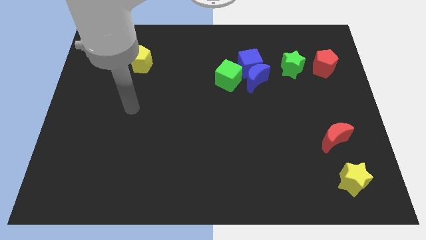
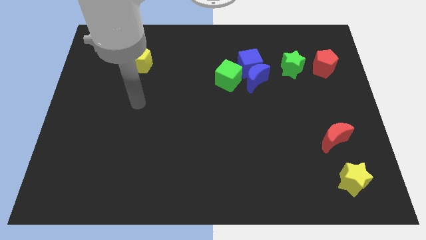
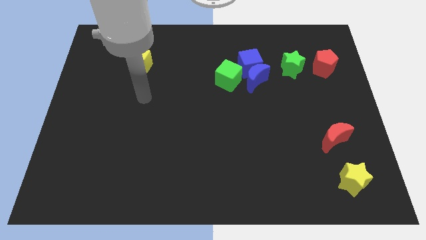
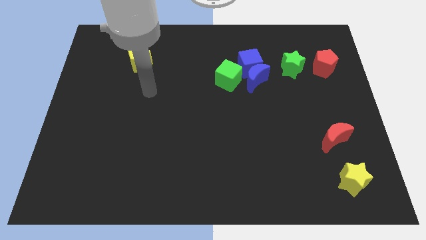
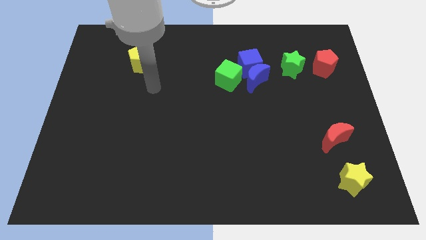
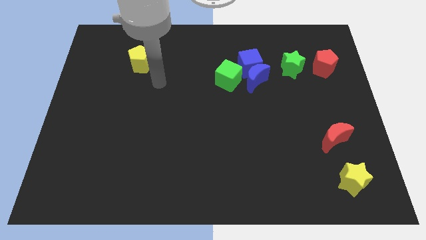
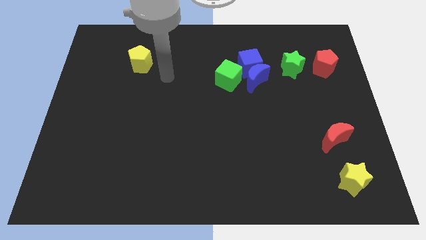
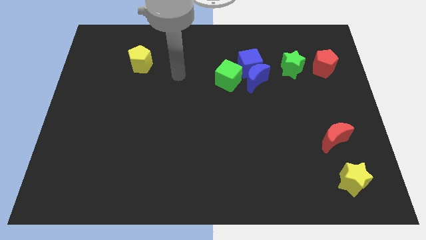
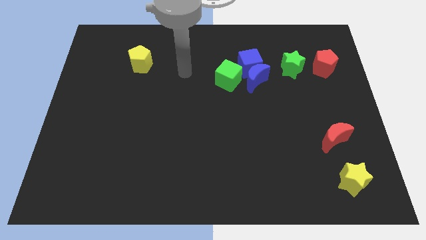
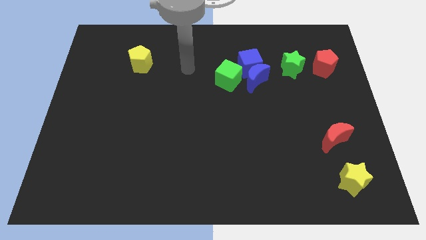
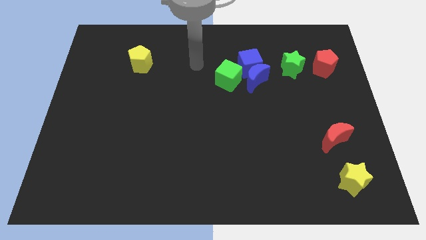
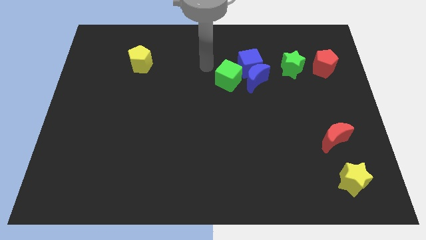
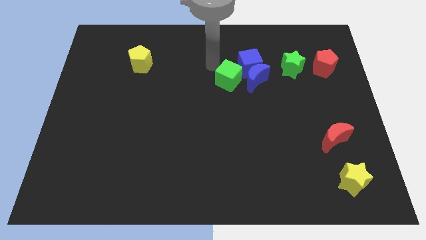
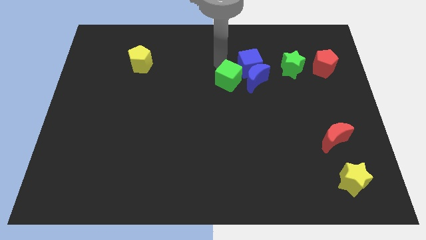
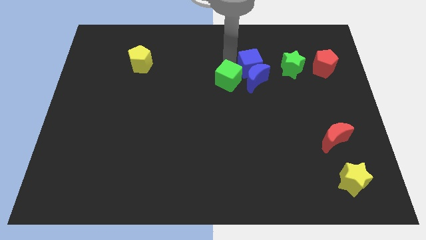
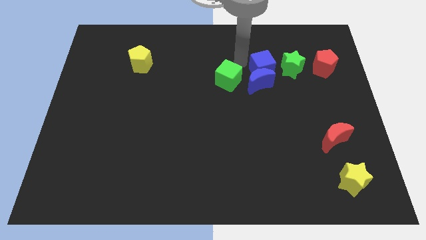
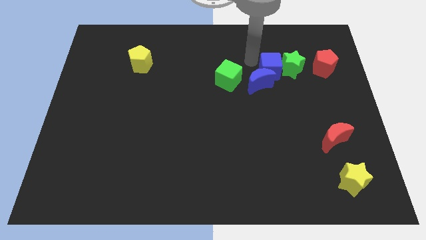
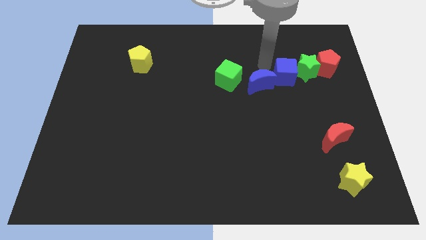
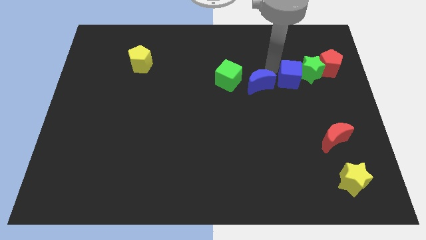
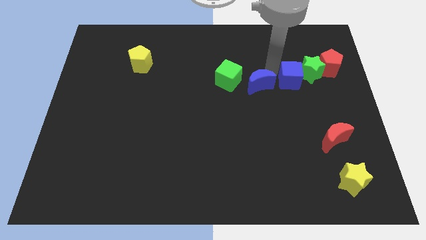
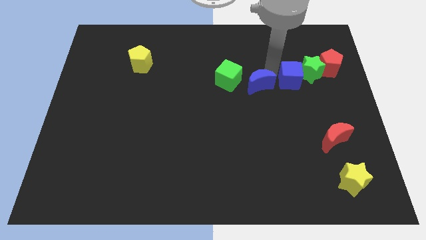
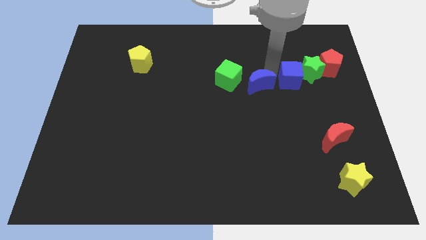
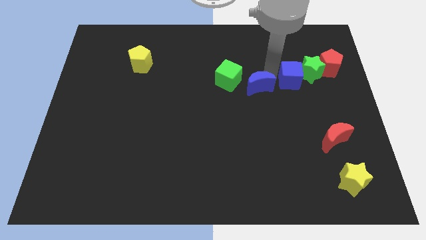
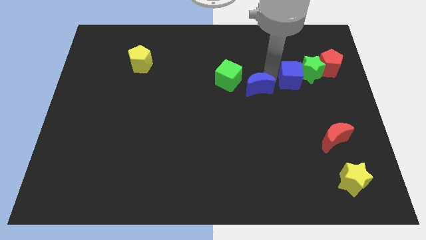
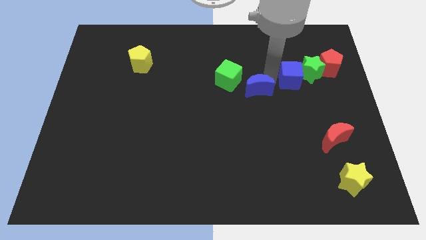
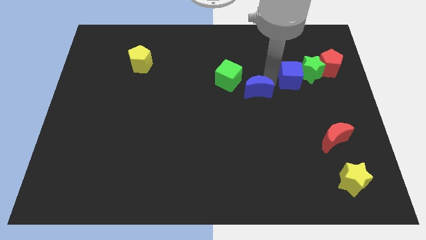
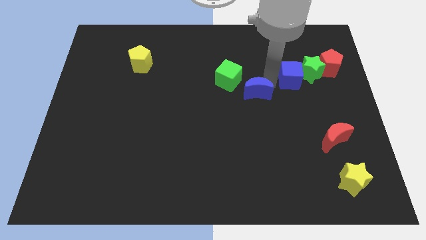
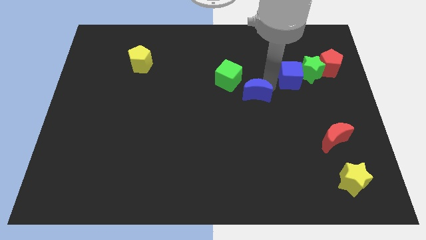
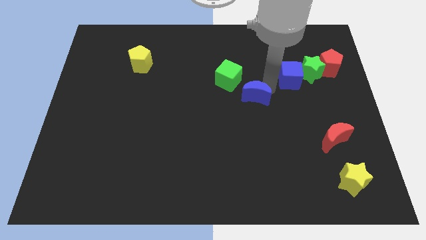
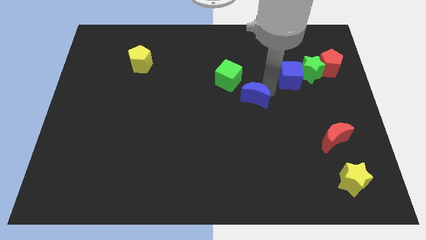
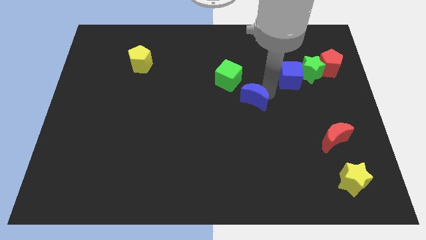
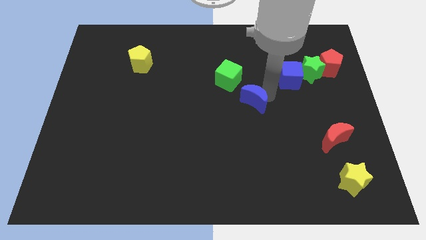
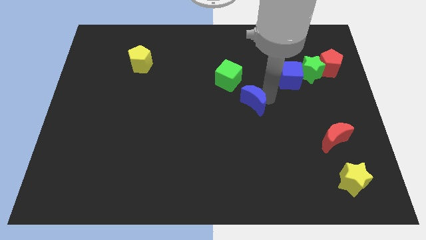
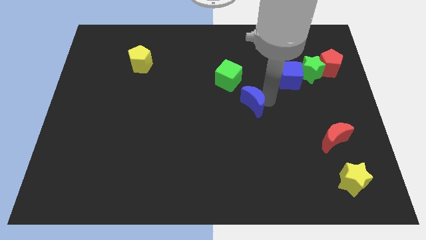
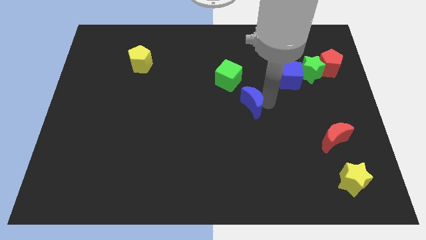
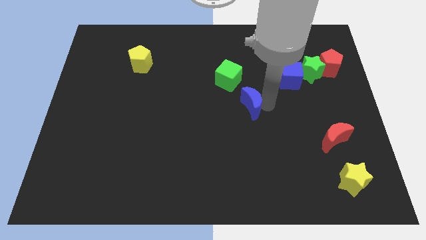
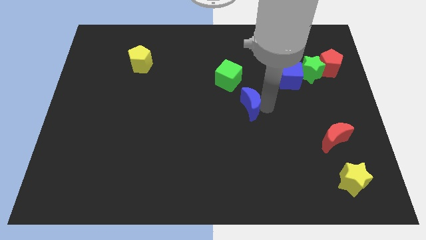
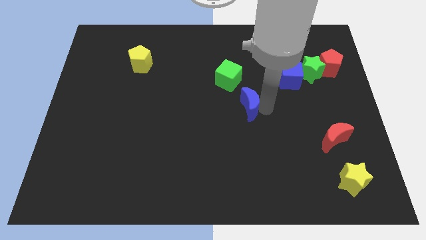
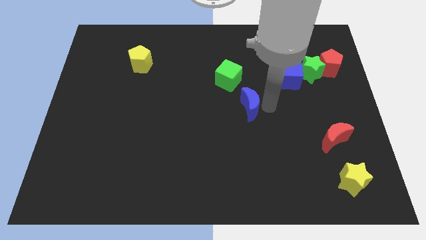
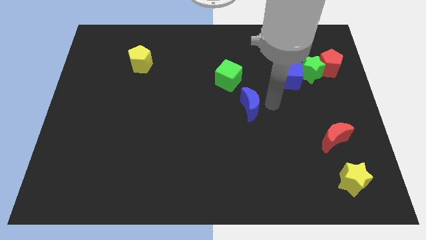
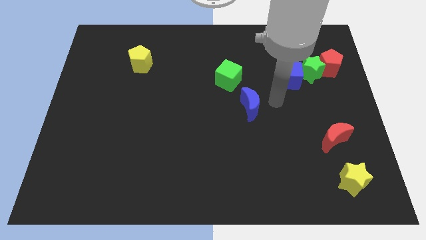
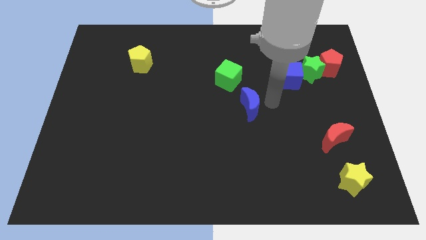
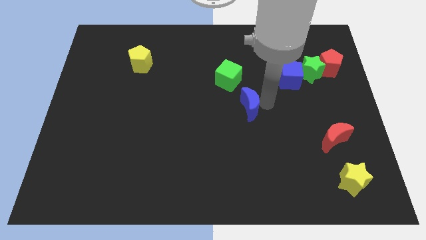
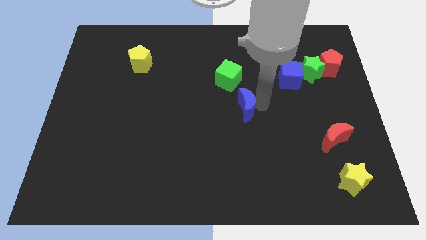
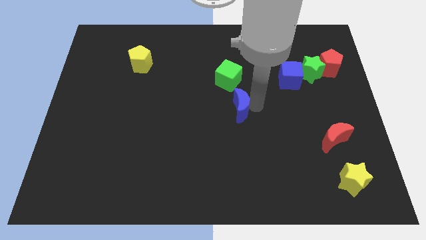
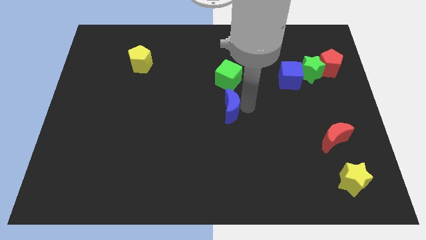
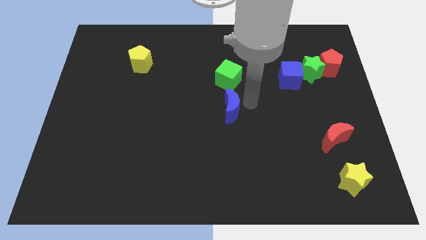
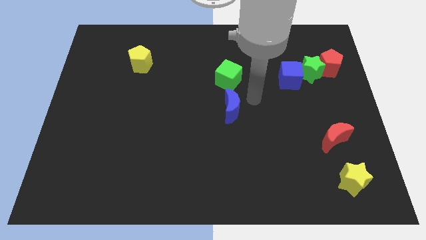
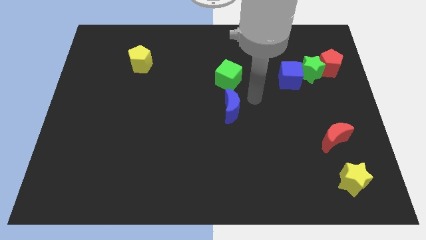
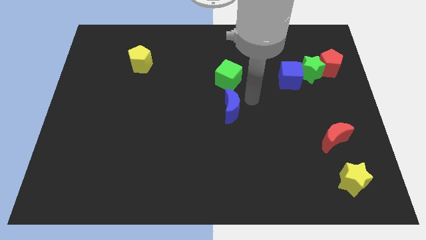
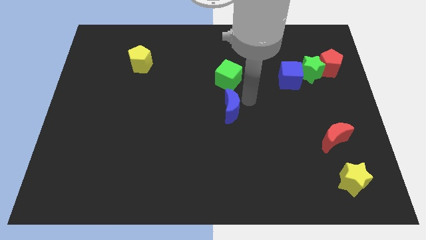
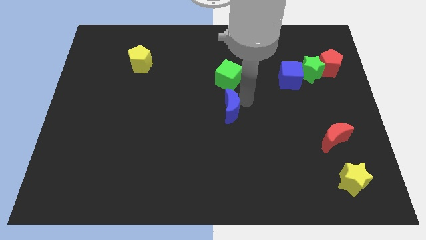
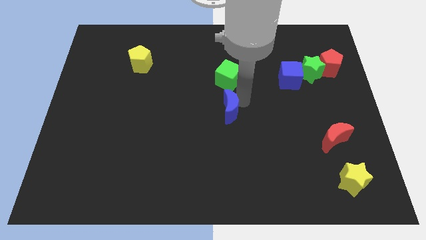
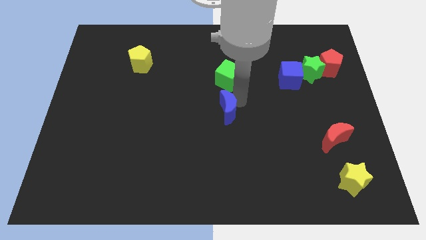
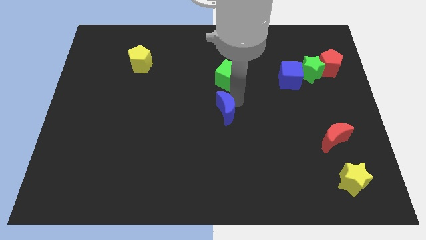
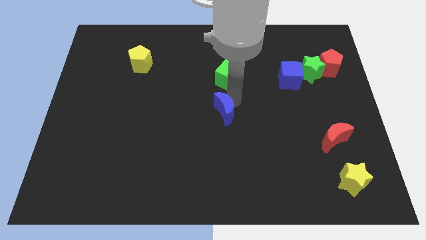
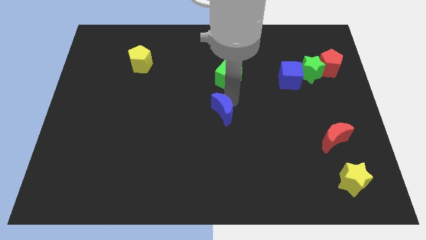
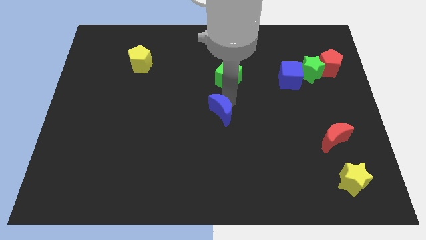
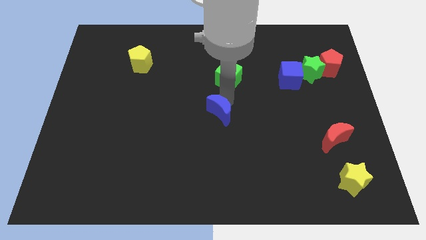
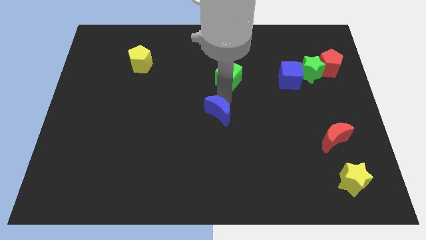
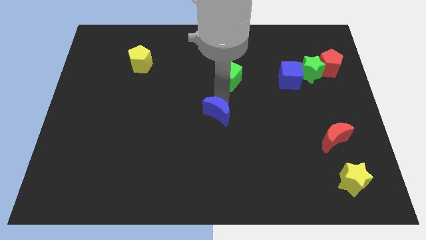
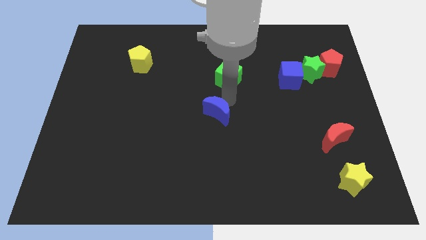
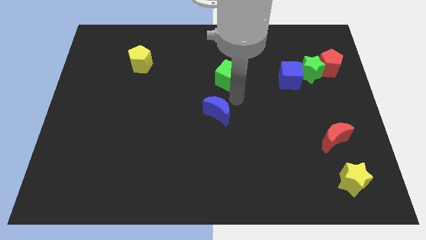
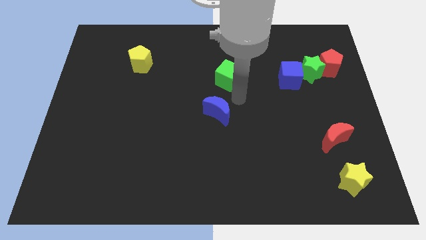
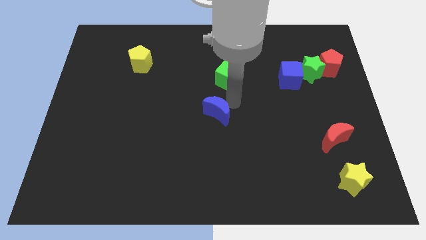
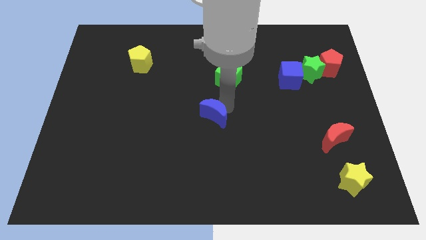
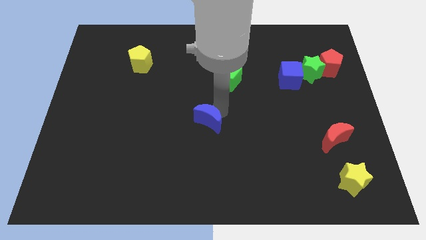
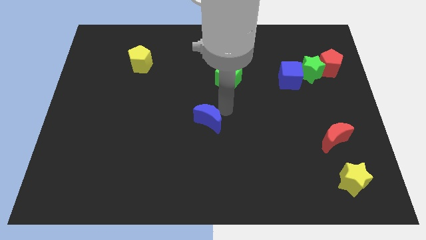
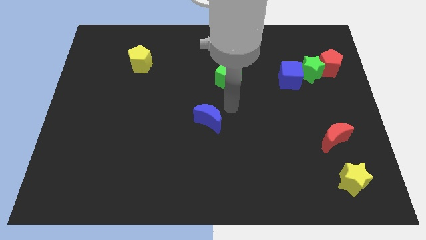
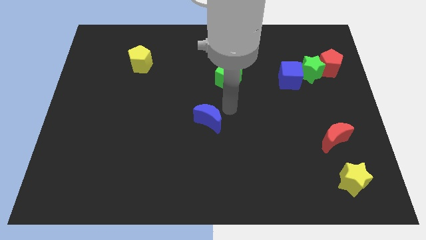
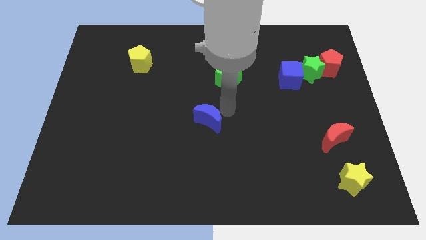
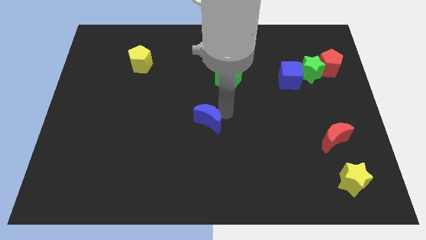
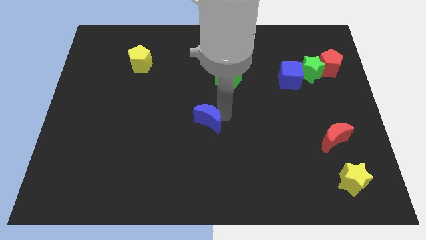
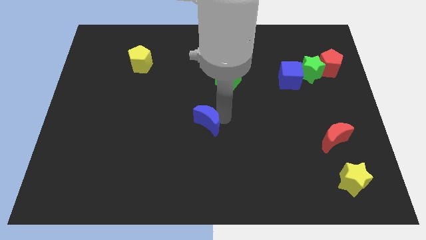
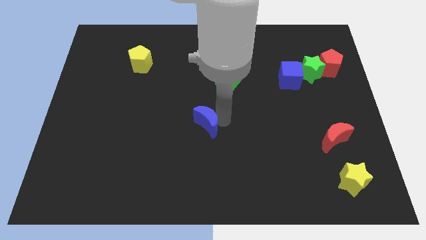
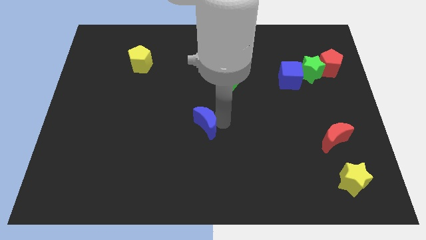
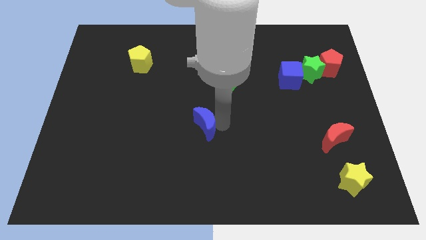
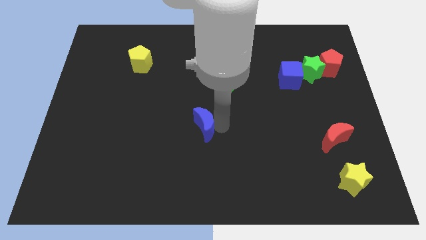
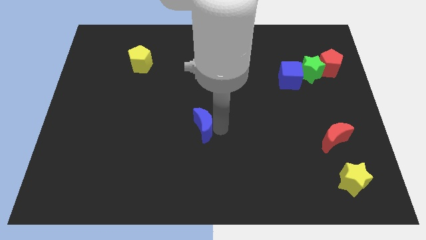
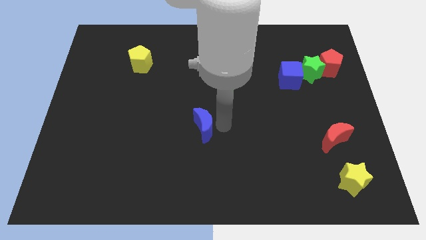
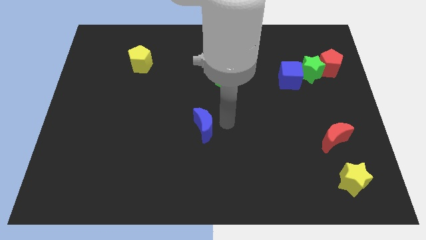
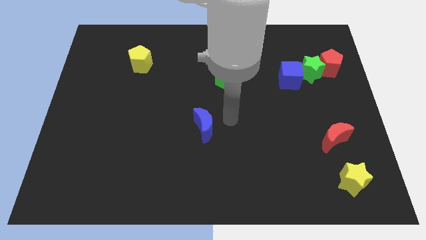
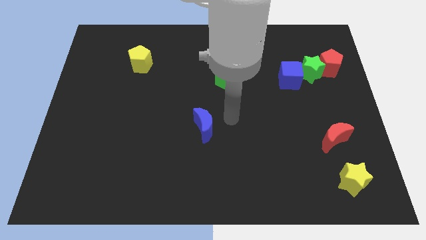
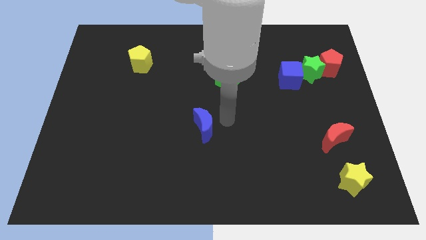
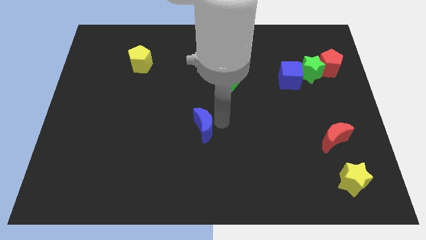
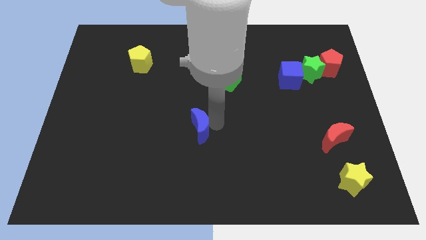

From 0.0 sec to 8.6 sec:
push the blue moon down and left
